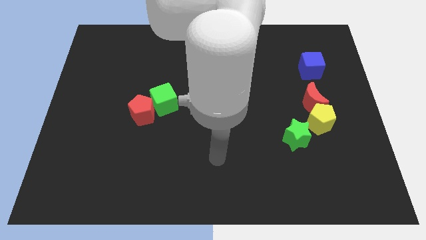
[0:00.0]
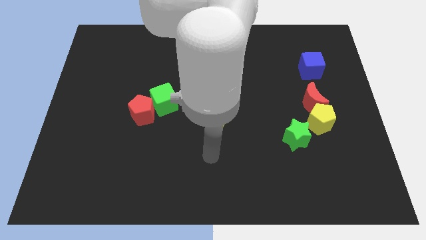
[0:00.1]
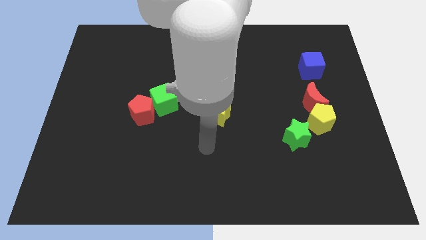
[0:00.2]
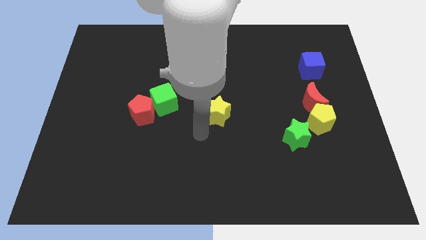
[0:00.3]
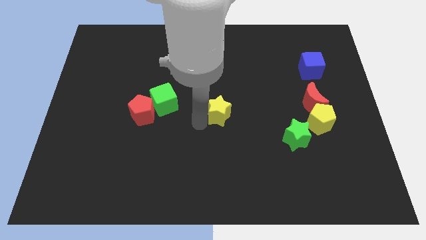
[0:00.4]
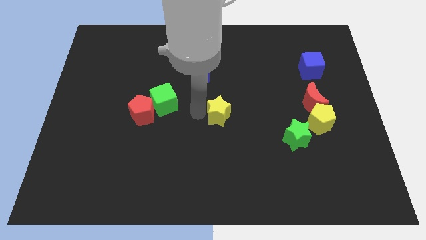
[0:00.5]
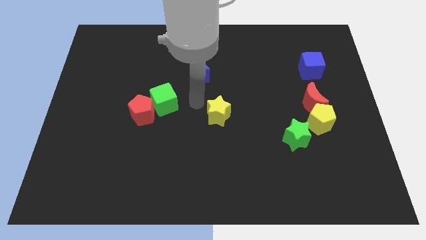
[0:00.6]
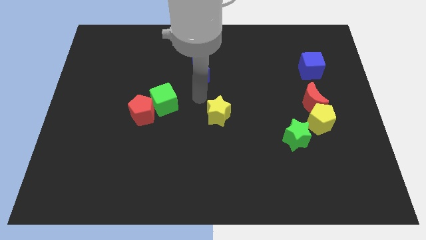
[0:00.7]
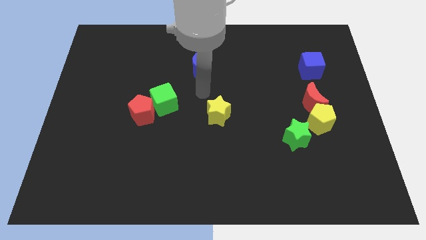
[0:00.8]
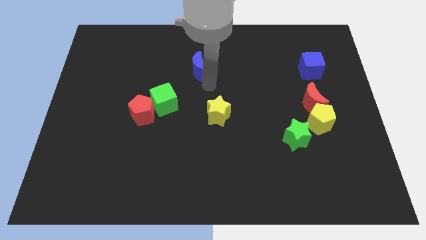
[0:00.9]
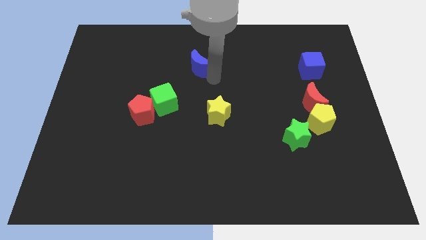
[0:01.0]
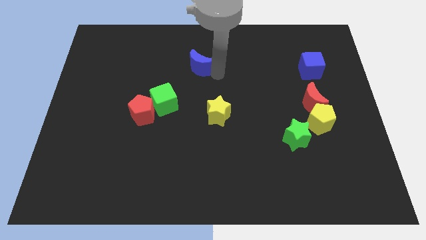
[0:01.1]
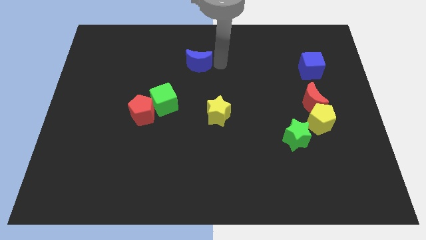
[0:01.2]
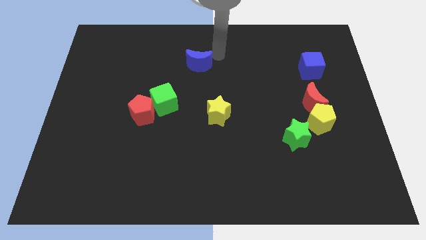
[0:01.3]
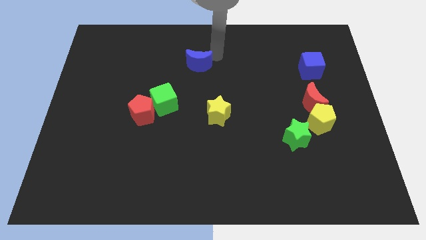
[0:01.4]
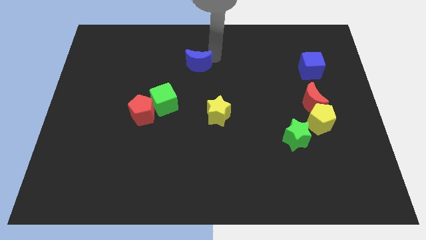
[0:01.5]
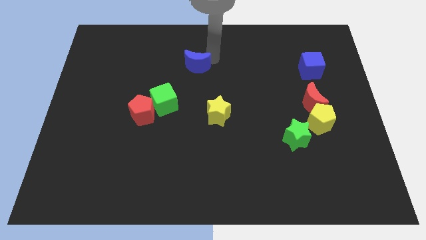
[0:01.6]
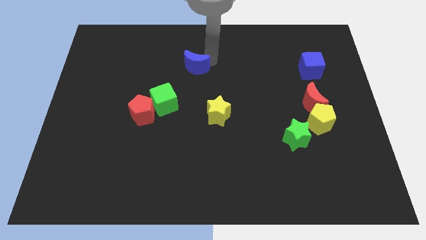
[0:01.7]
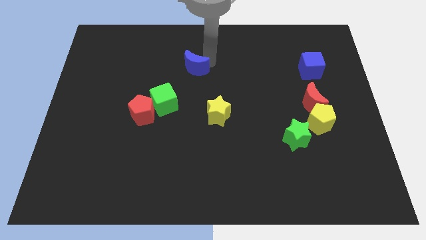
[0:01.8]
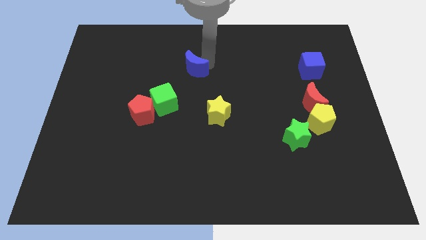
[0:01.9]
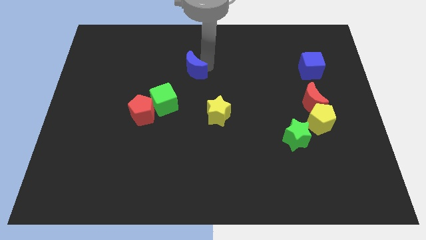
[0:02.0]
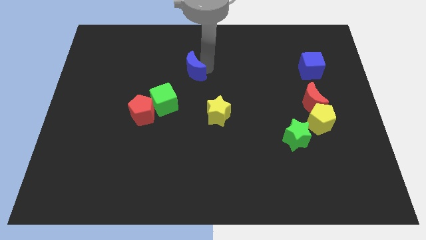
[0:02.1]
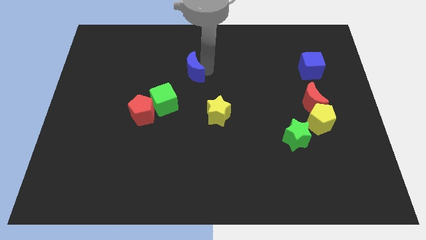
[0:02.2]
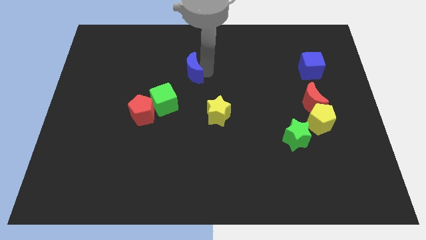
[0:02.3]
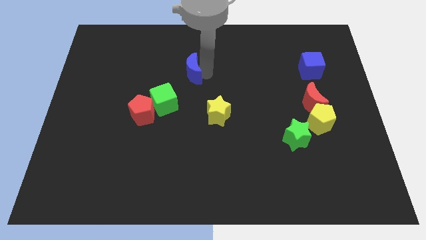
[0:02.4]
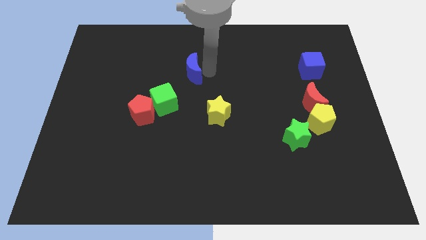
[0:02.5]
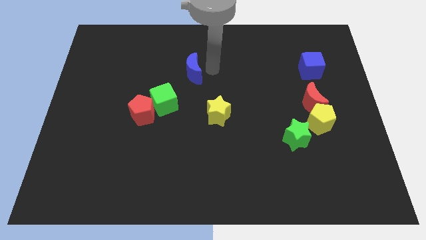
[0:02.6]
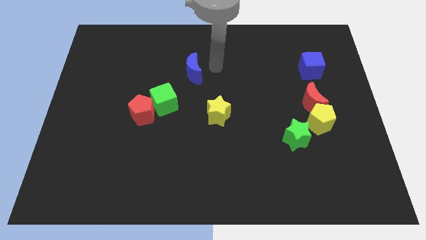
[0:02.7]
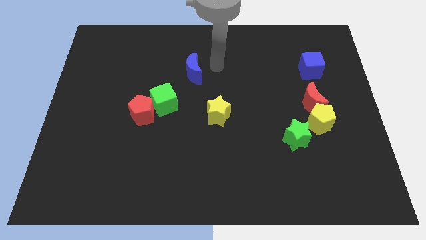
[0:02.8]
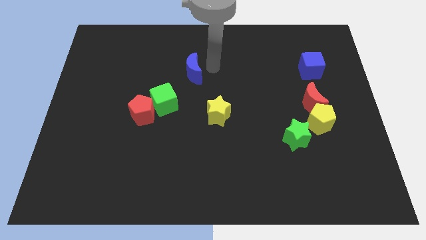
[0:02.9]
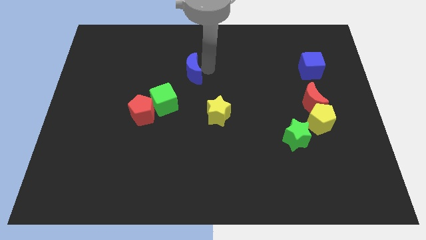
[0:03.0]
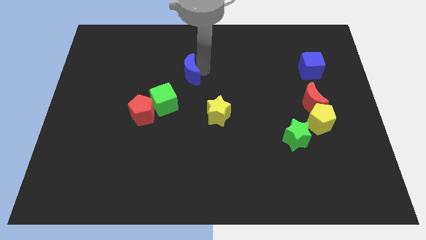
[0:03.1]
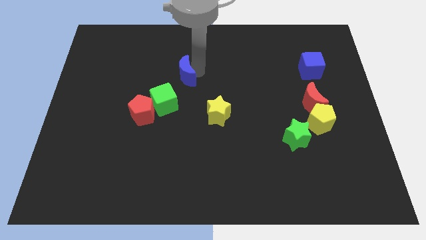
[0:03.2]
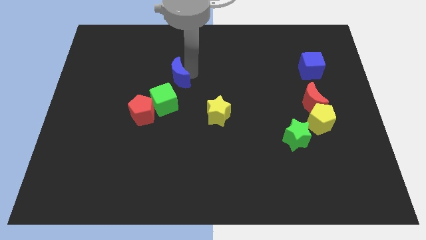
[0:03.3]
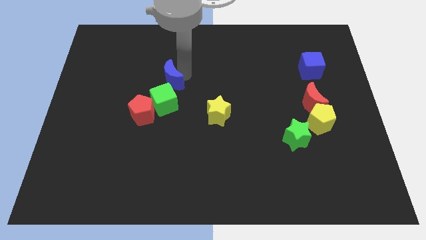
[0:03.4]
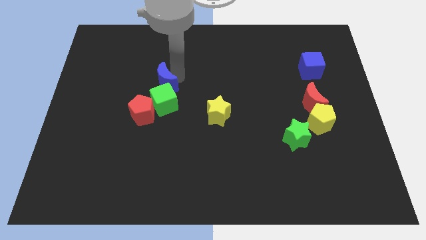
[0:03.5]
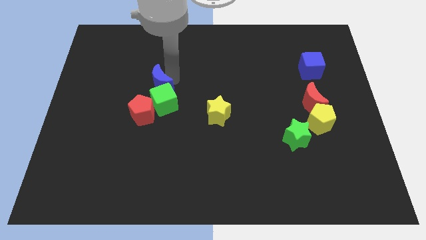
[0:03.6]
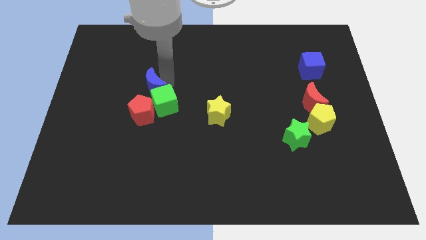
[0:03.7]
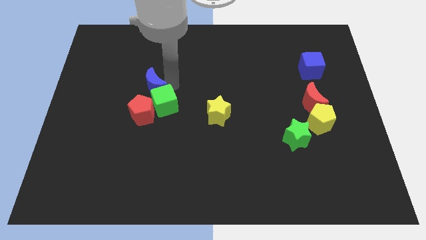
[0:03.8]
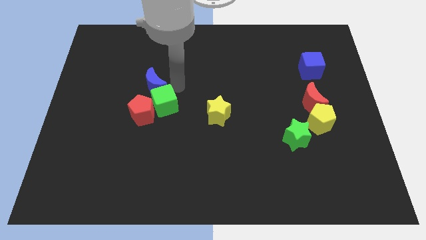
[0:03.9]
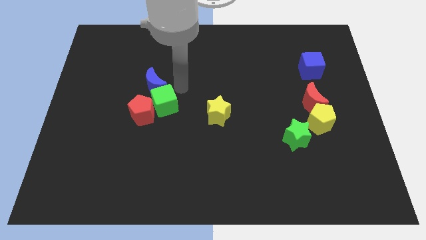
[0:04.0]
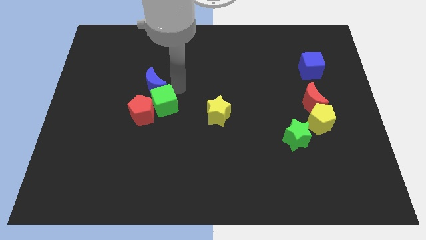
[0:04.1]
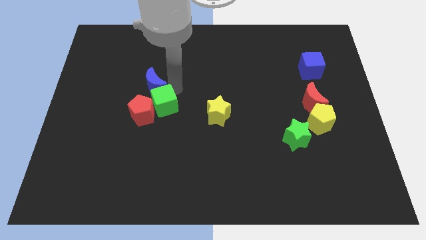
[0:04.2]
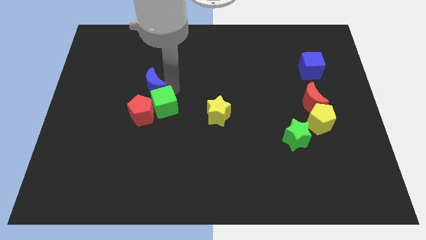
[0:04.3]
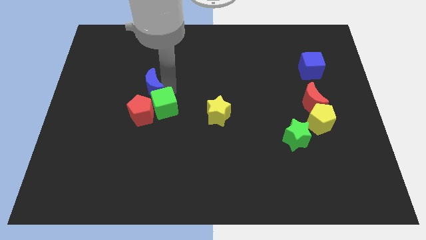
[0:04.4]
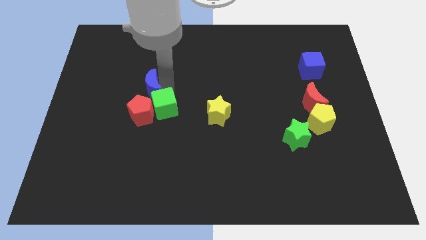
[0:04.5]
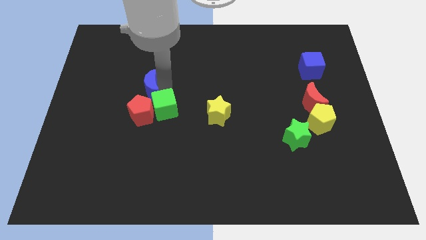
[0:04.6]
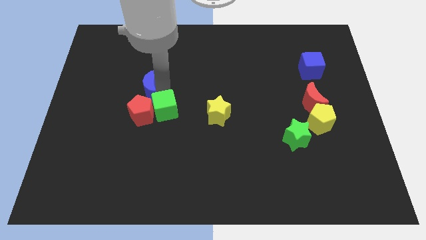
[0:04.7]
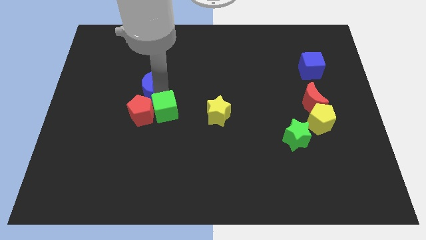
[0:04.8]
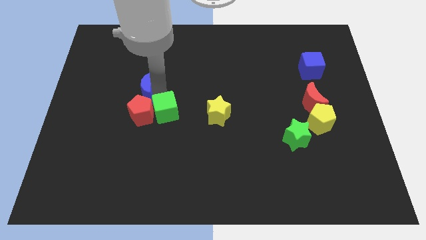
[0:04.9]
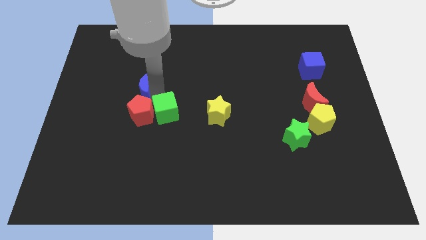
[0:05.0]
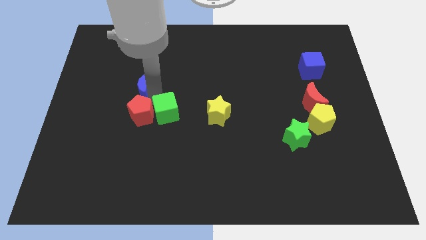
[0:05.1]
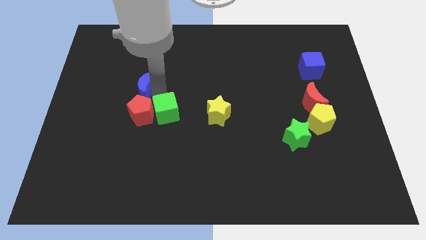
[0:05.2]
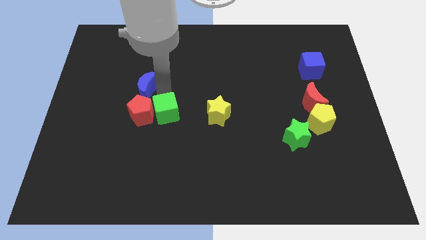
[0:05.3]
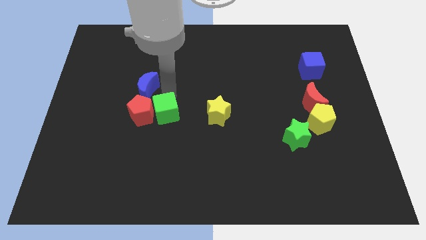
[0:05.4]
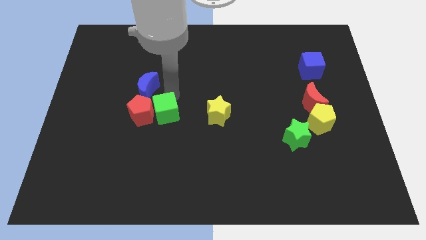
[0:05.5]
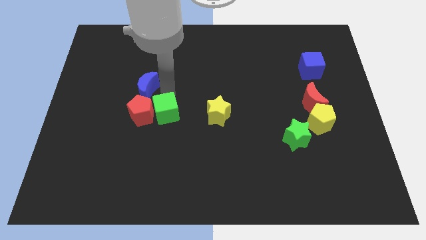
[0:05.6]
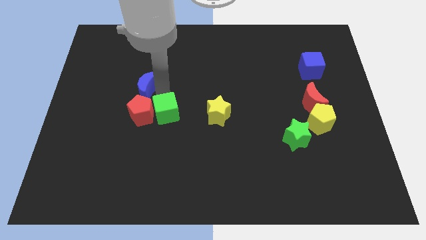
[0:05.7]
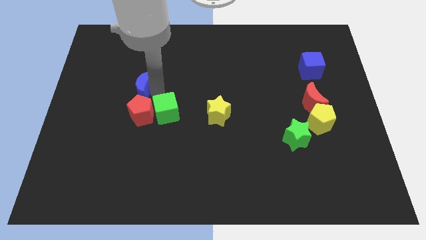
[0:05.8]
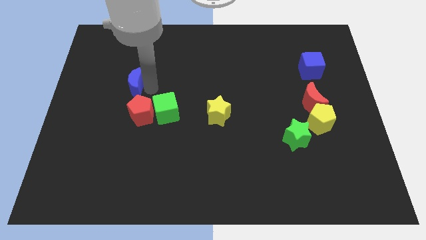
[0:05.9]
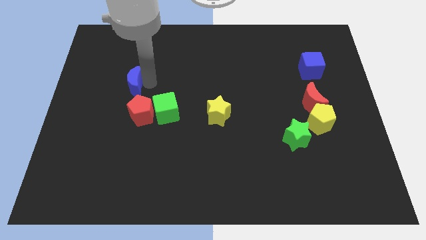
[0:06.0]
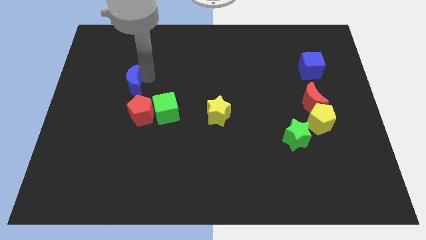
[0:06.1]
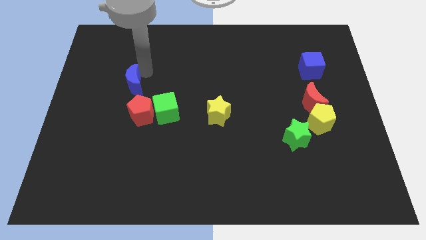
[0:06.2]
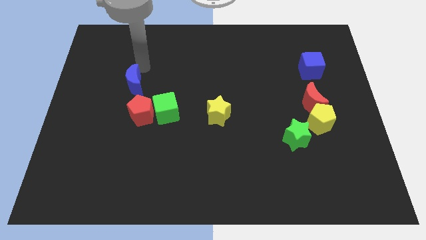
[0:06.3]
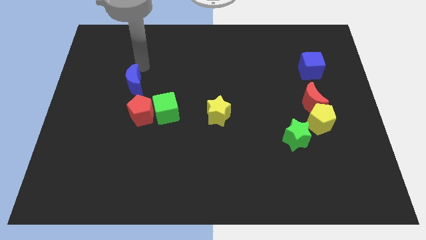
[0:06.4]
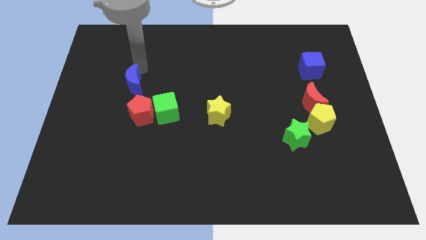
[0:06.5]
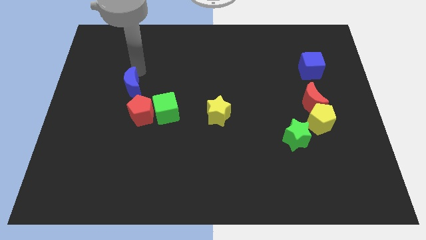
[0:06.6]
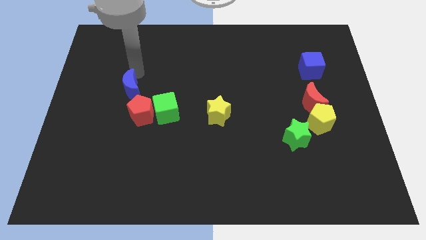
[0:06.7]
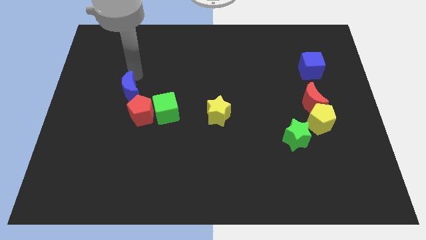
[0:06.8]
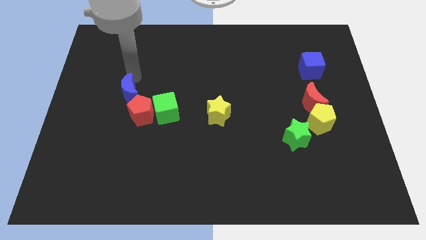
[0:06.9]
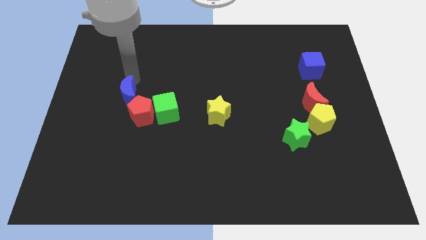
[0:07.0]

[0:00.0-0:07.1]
push the blue moon left of the green cube

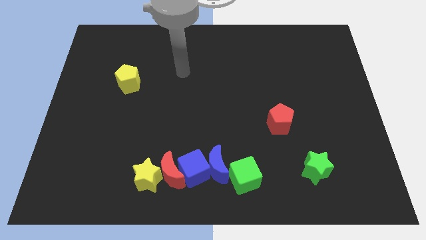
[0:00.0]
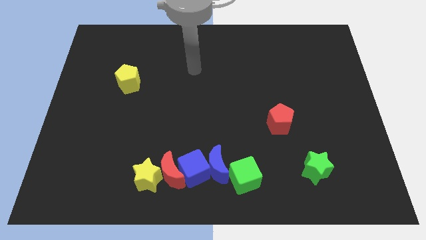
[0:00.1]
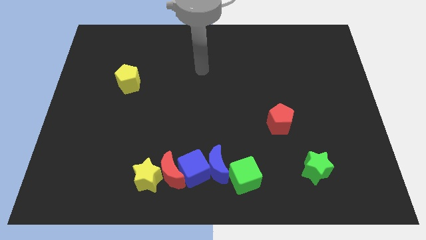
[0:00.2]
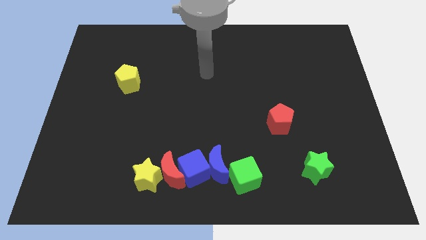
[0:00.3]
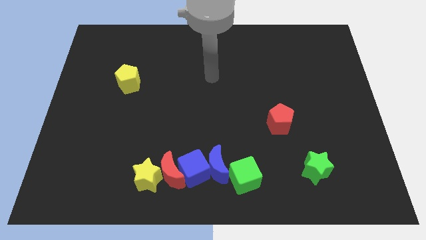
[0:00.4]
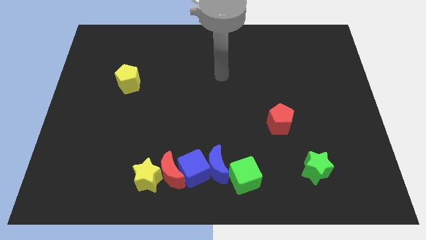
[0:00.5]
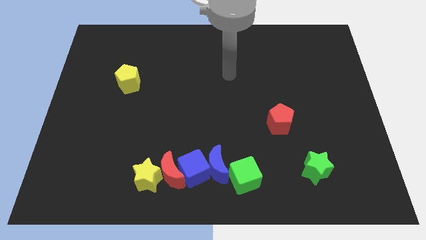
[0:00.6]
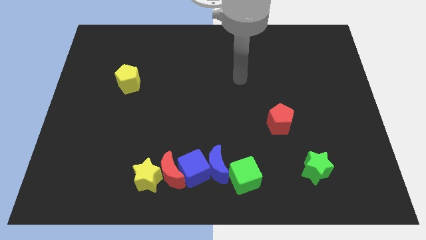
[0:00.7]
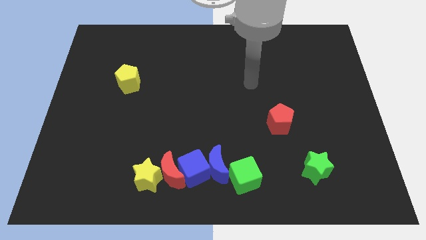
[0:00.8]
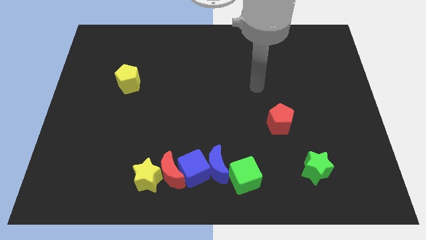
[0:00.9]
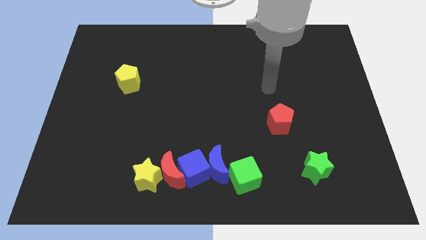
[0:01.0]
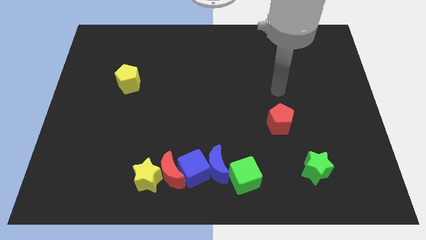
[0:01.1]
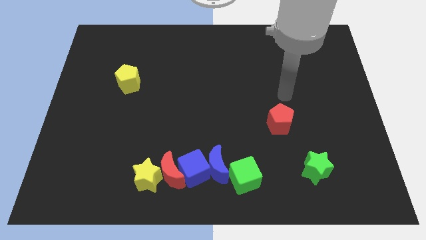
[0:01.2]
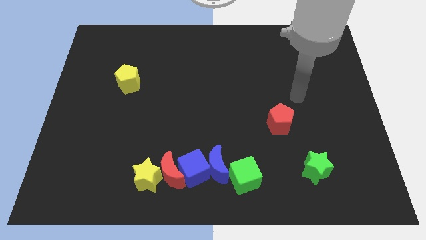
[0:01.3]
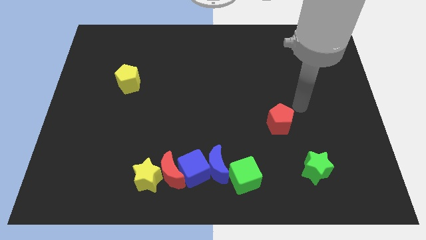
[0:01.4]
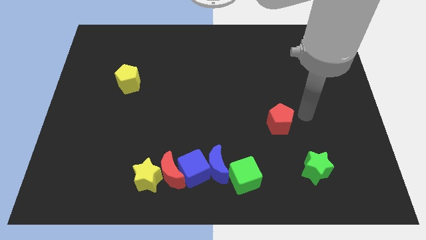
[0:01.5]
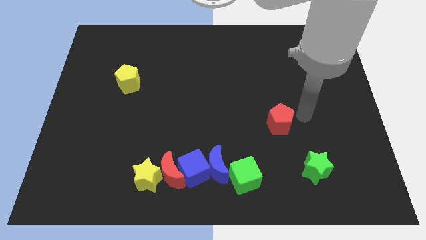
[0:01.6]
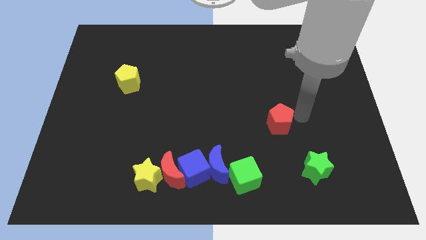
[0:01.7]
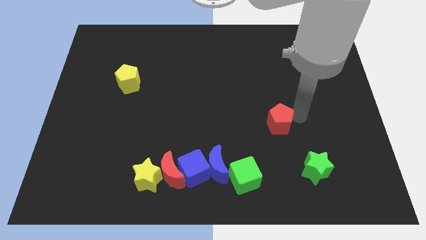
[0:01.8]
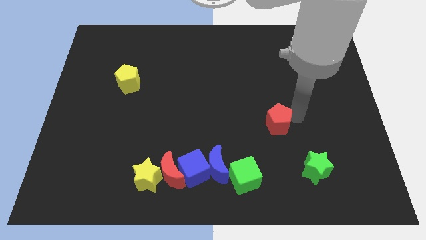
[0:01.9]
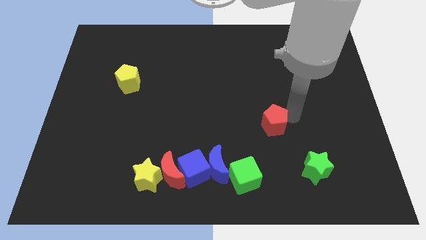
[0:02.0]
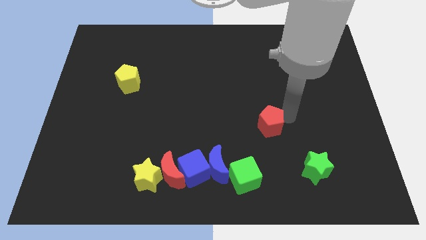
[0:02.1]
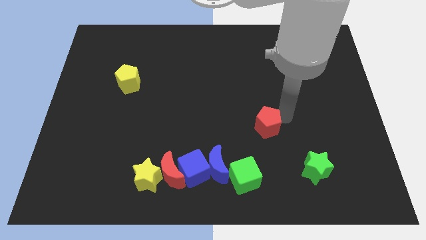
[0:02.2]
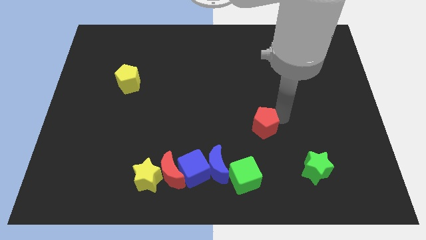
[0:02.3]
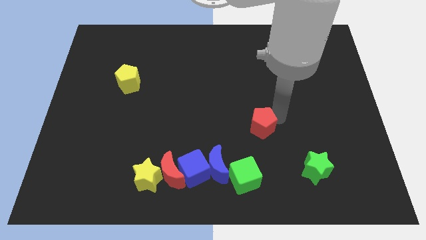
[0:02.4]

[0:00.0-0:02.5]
push the red pentagon above the green cube
